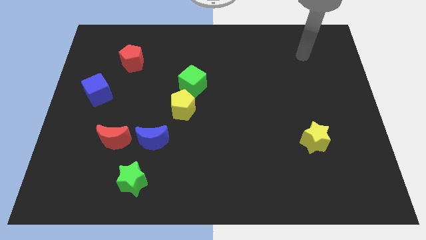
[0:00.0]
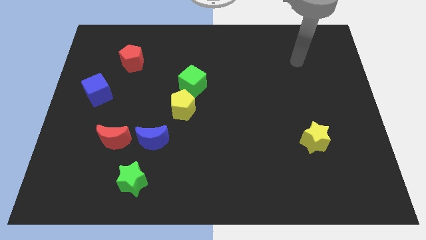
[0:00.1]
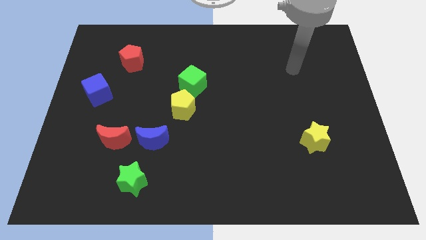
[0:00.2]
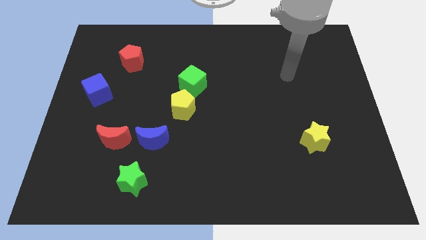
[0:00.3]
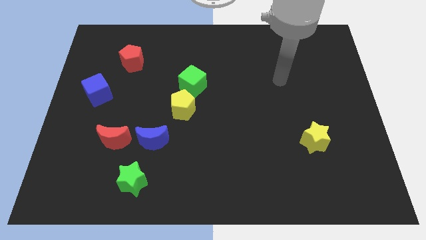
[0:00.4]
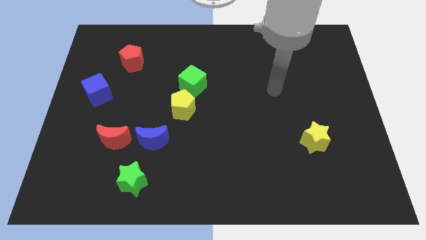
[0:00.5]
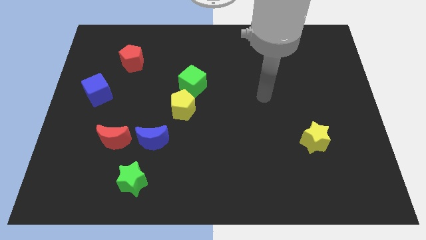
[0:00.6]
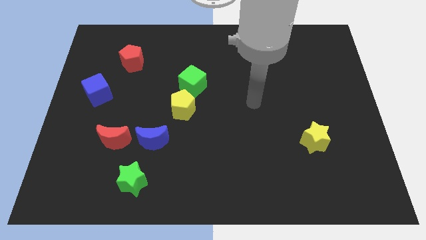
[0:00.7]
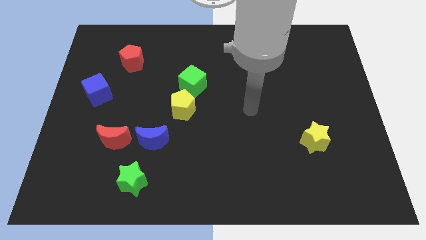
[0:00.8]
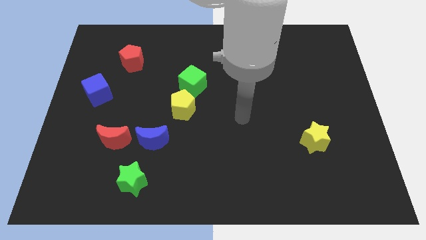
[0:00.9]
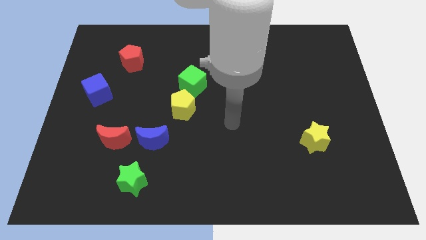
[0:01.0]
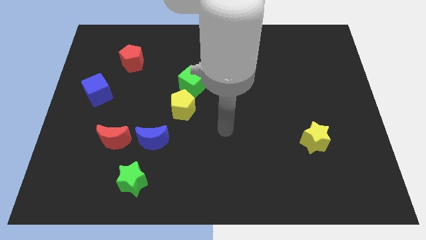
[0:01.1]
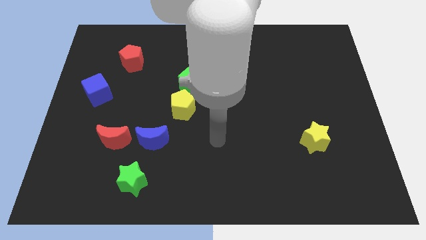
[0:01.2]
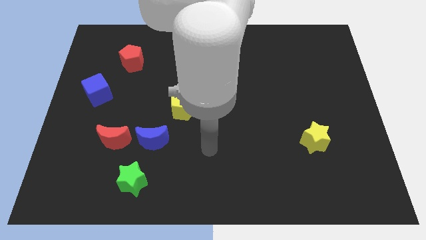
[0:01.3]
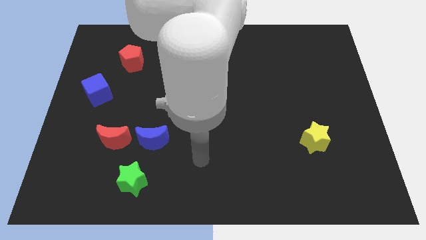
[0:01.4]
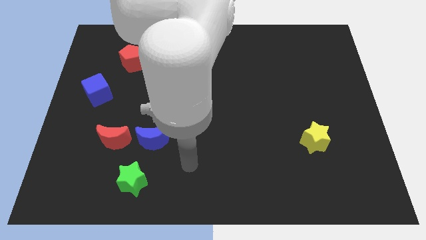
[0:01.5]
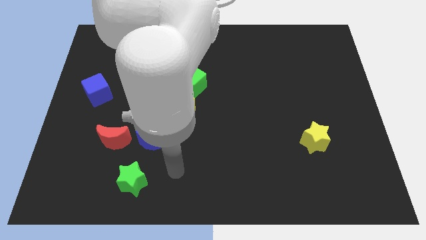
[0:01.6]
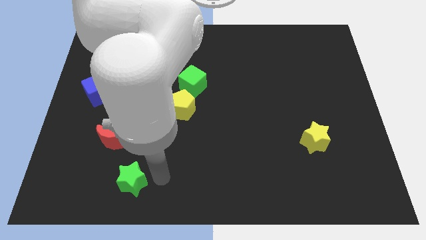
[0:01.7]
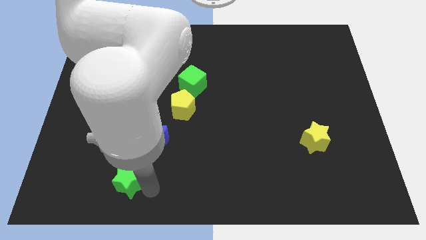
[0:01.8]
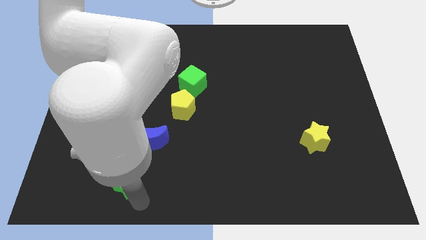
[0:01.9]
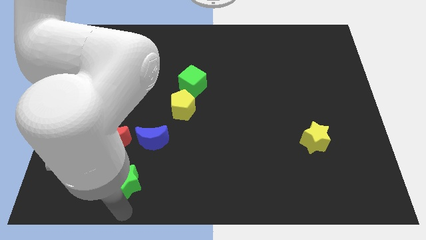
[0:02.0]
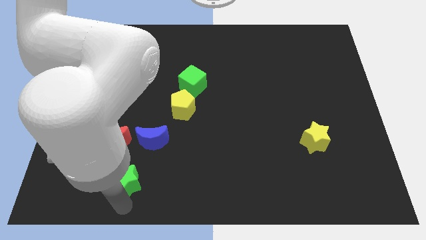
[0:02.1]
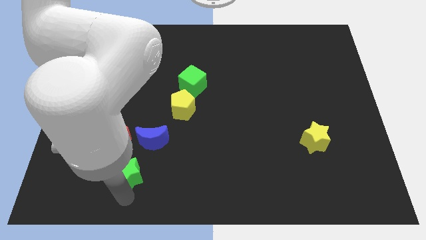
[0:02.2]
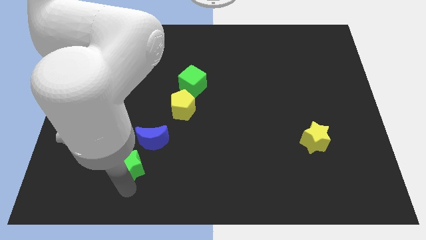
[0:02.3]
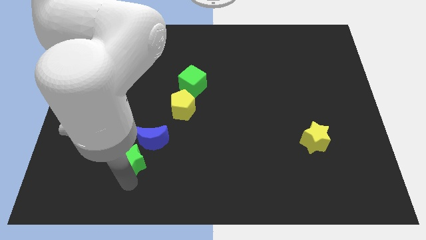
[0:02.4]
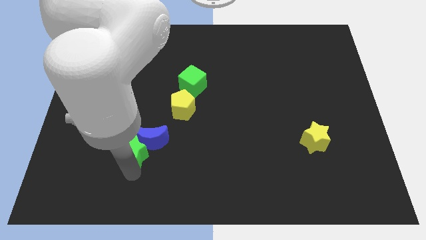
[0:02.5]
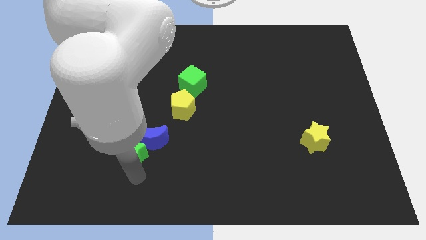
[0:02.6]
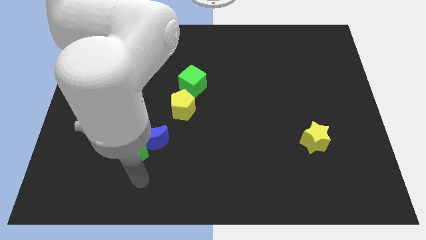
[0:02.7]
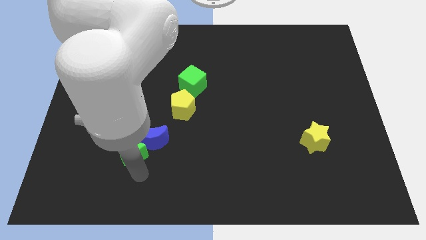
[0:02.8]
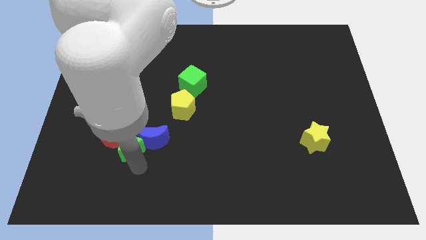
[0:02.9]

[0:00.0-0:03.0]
slide the green star a bit upwards

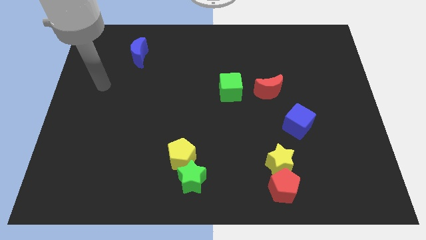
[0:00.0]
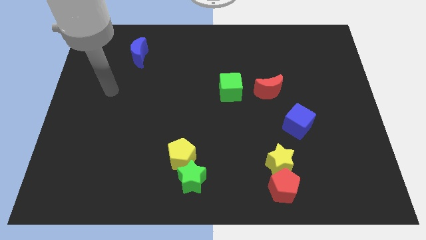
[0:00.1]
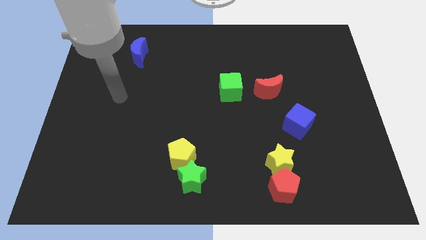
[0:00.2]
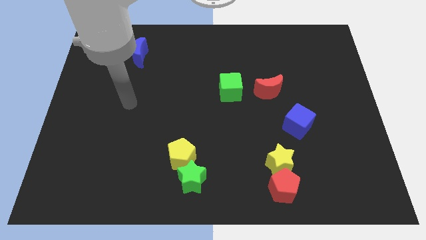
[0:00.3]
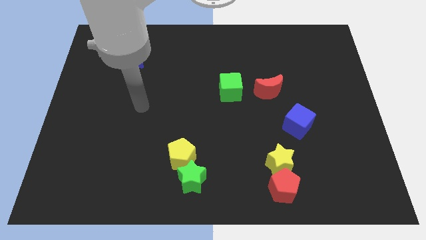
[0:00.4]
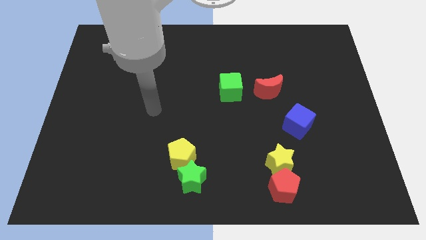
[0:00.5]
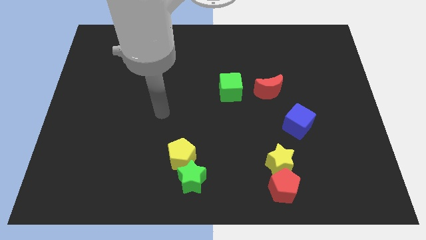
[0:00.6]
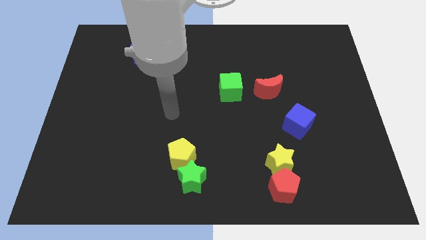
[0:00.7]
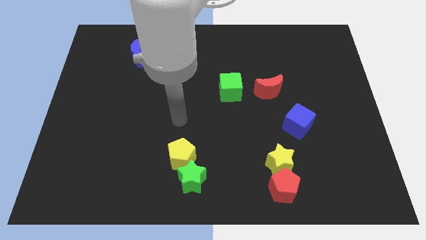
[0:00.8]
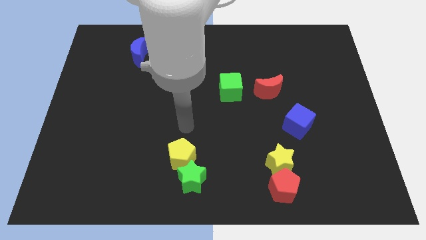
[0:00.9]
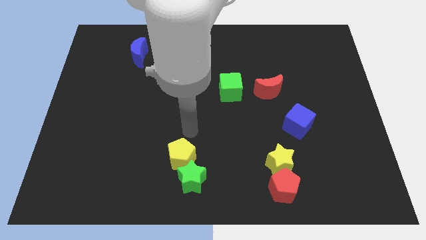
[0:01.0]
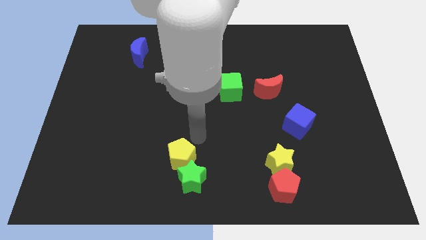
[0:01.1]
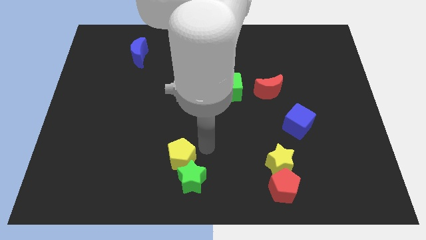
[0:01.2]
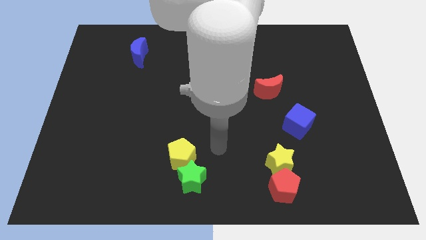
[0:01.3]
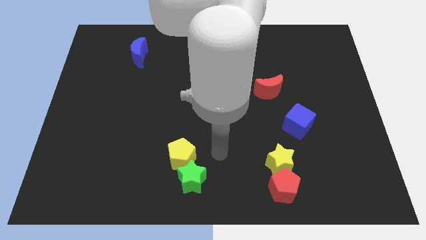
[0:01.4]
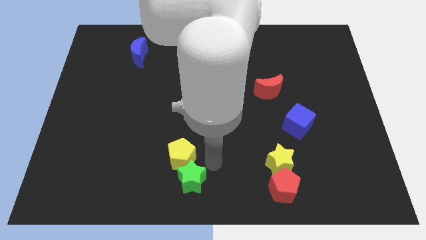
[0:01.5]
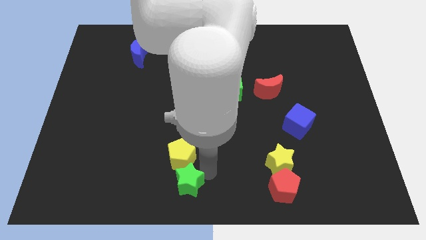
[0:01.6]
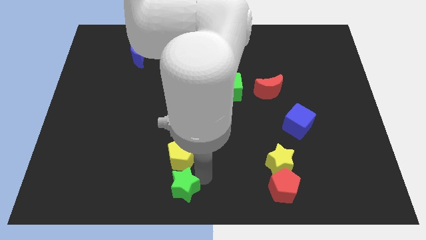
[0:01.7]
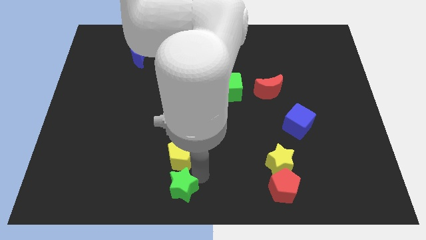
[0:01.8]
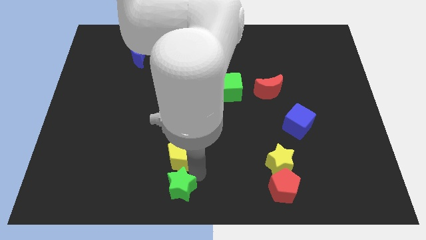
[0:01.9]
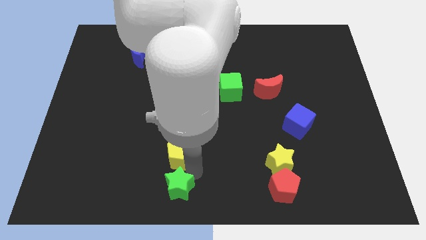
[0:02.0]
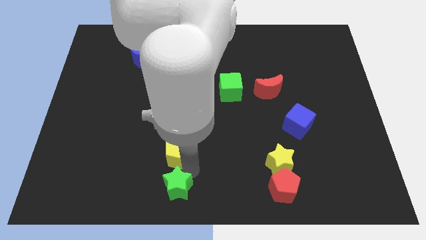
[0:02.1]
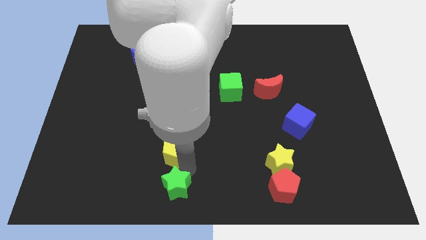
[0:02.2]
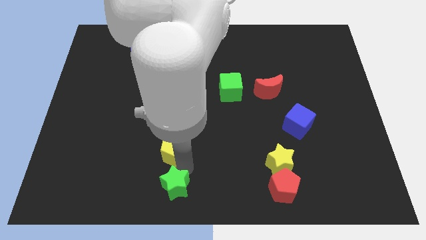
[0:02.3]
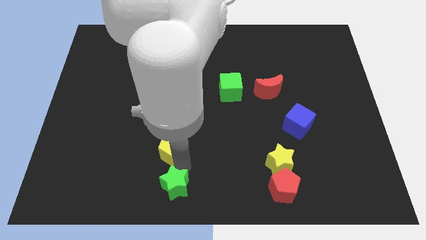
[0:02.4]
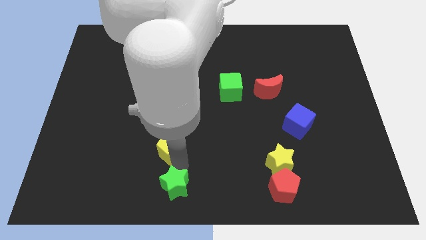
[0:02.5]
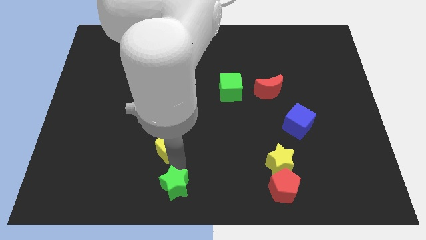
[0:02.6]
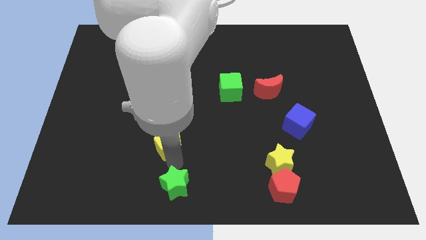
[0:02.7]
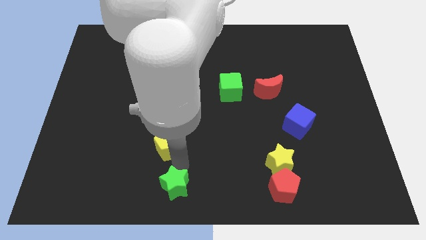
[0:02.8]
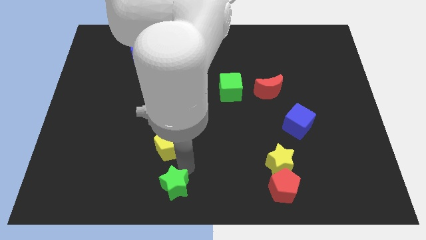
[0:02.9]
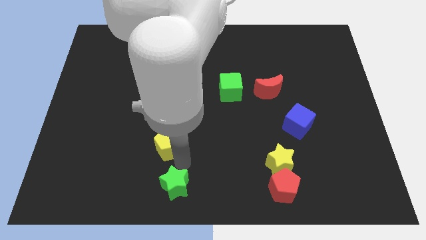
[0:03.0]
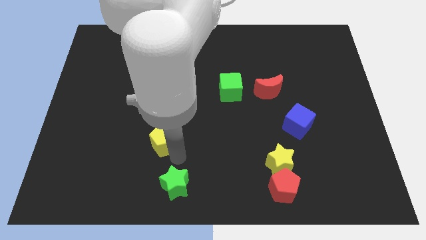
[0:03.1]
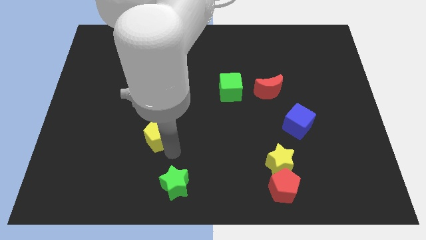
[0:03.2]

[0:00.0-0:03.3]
push the yellow pentagon somewhat up and to the left diagonally

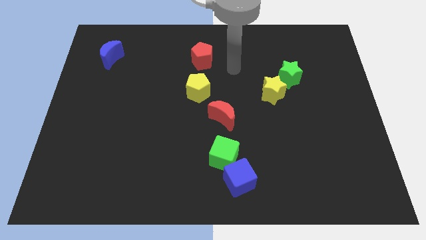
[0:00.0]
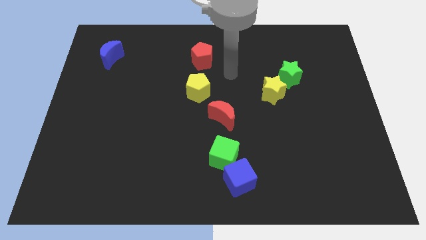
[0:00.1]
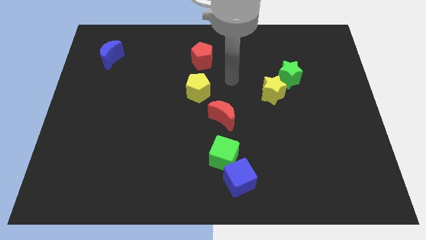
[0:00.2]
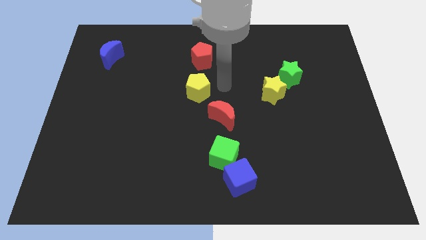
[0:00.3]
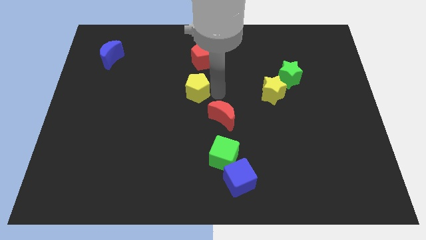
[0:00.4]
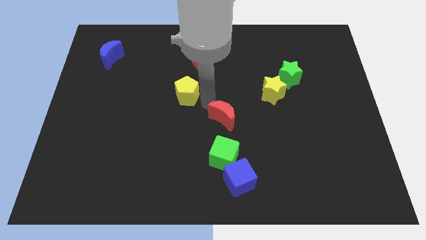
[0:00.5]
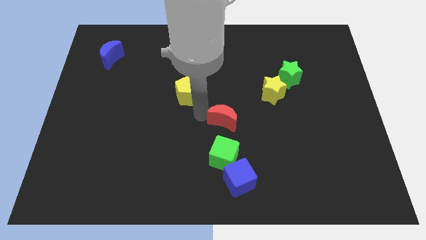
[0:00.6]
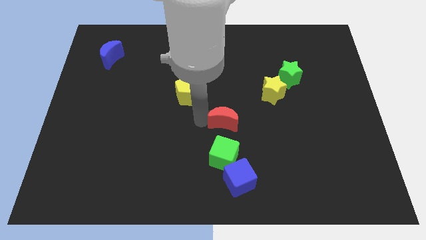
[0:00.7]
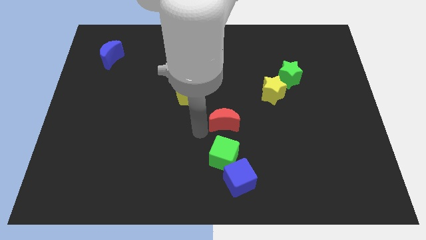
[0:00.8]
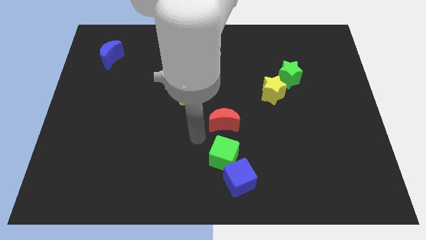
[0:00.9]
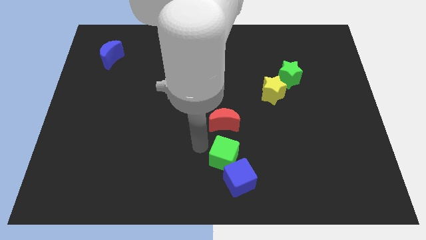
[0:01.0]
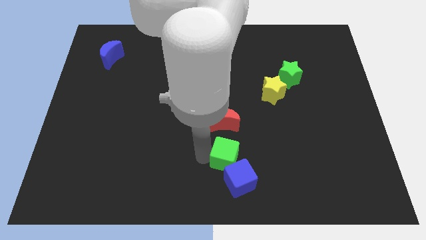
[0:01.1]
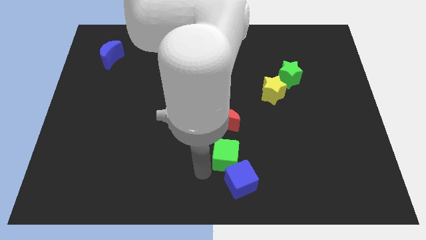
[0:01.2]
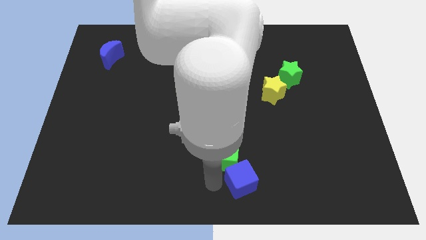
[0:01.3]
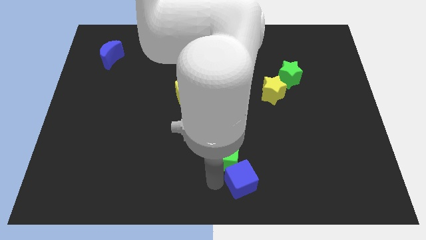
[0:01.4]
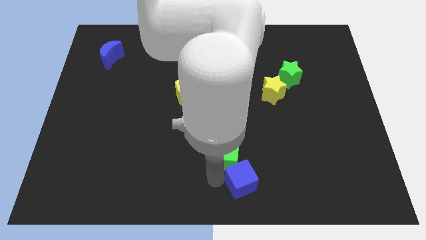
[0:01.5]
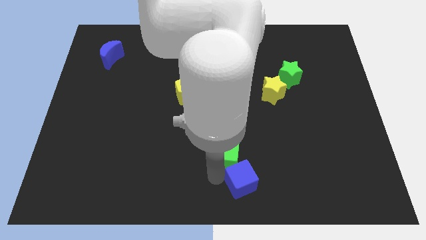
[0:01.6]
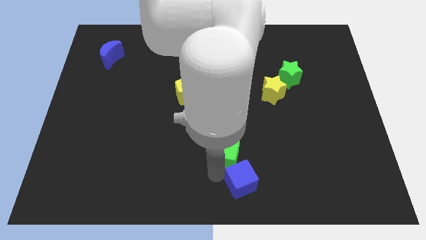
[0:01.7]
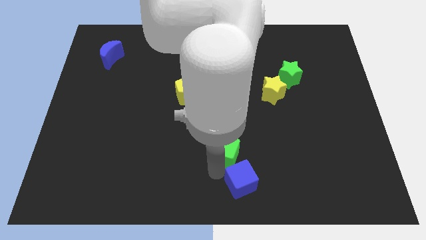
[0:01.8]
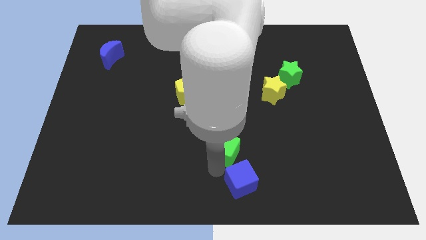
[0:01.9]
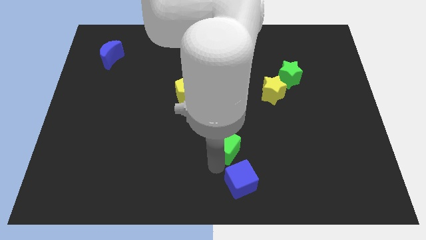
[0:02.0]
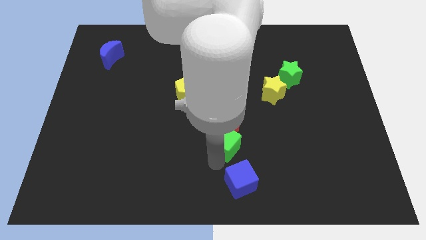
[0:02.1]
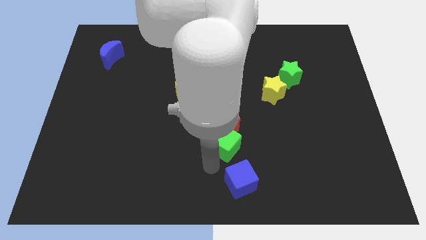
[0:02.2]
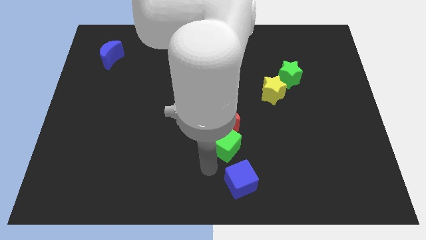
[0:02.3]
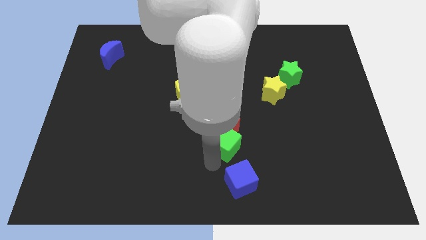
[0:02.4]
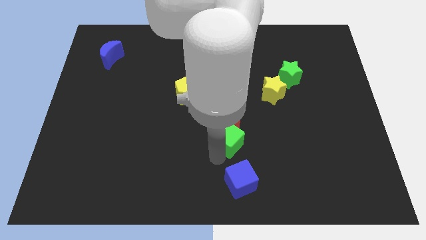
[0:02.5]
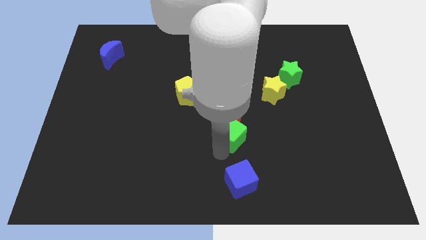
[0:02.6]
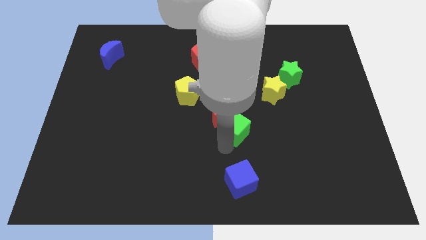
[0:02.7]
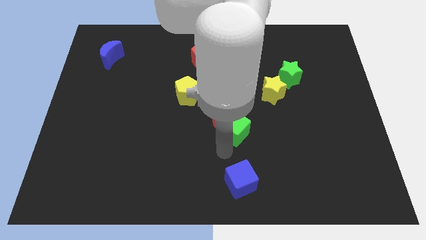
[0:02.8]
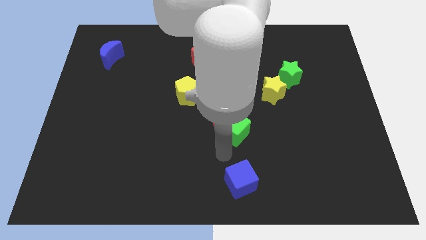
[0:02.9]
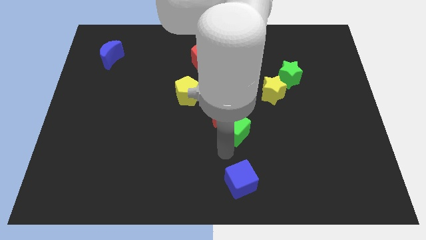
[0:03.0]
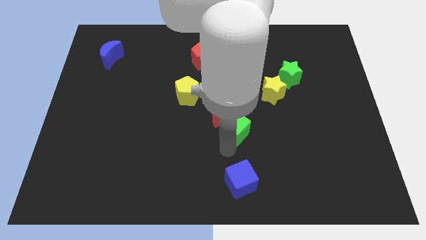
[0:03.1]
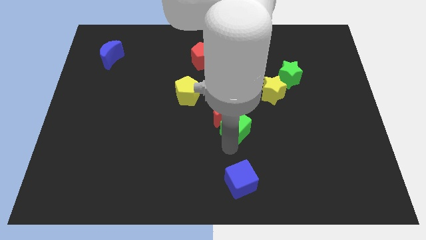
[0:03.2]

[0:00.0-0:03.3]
slide the green cube up a little bit
